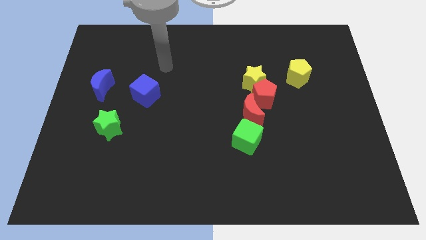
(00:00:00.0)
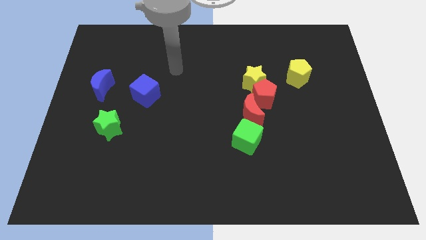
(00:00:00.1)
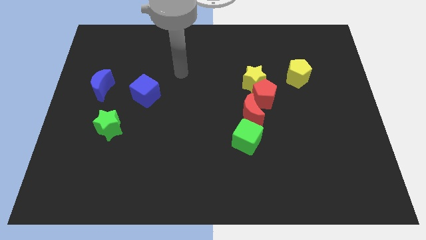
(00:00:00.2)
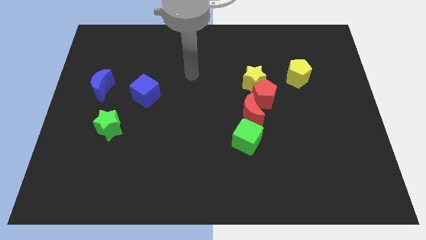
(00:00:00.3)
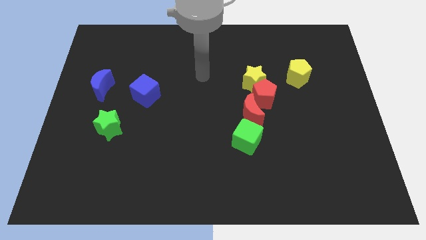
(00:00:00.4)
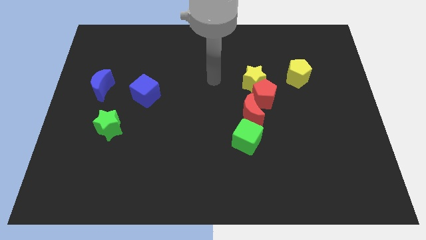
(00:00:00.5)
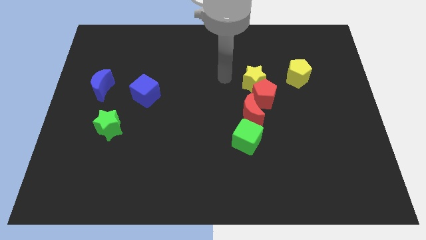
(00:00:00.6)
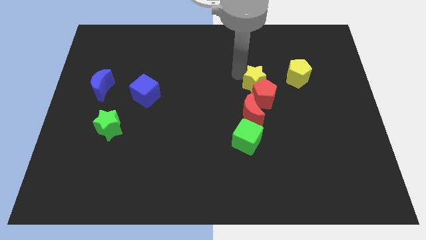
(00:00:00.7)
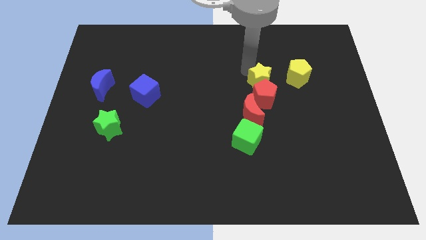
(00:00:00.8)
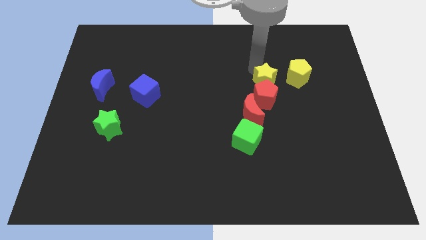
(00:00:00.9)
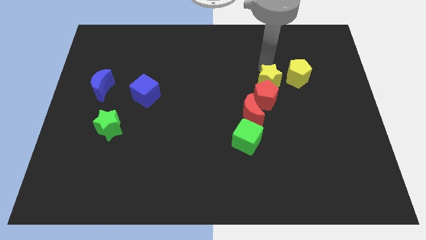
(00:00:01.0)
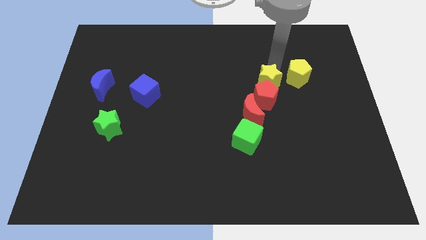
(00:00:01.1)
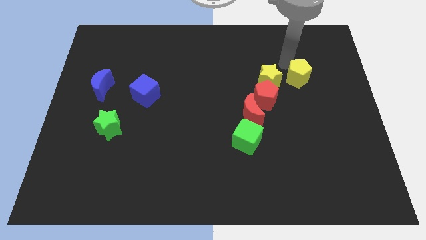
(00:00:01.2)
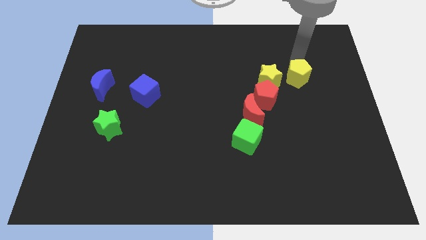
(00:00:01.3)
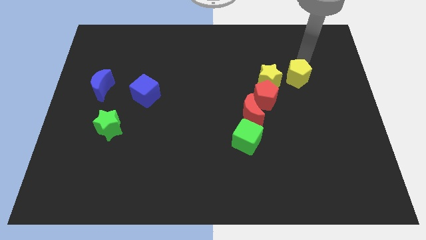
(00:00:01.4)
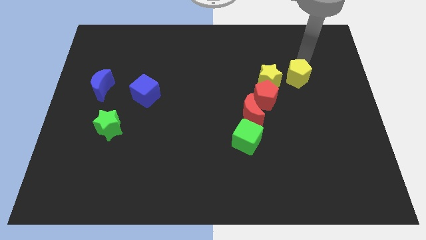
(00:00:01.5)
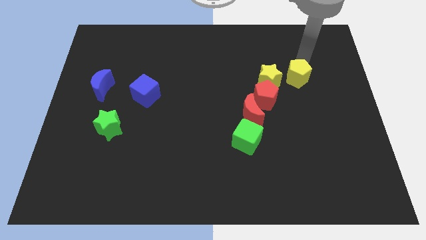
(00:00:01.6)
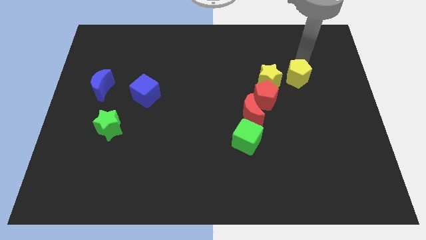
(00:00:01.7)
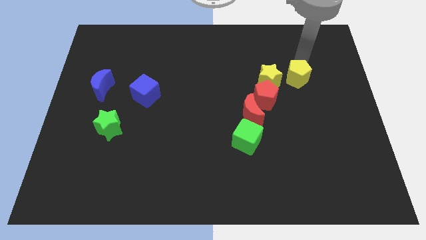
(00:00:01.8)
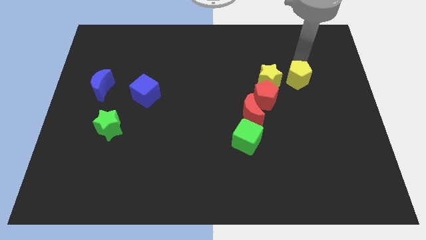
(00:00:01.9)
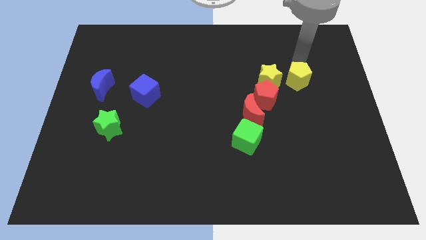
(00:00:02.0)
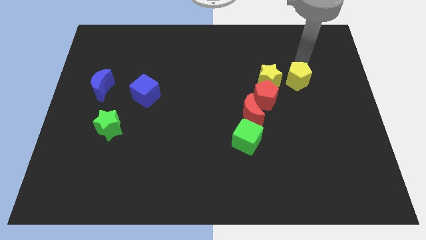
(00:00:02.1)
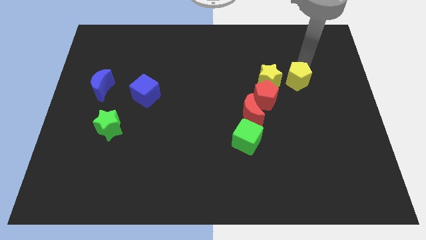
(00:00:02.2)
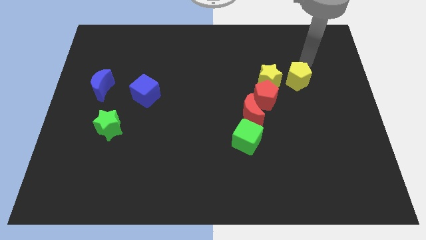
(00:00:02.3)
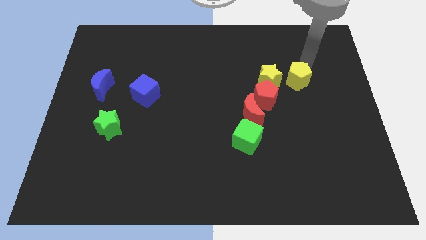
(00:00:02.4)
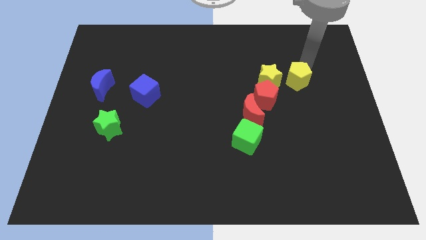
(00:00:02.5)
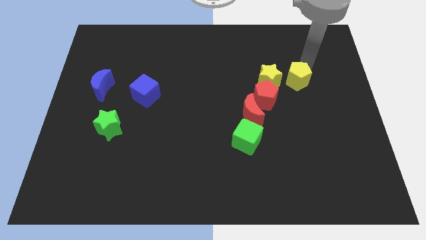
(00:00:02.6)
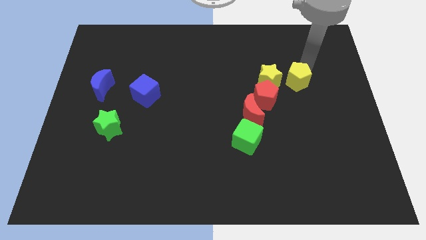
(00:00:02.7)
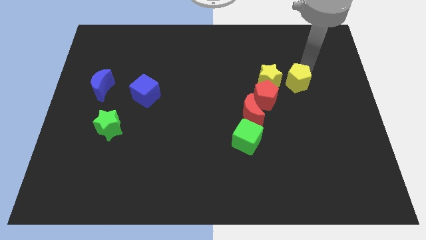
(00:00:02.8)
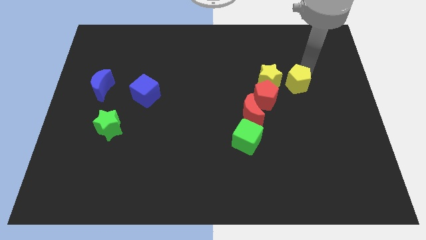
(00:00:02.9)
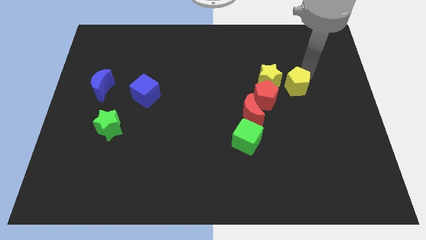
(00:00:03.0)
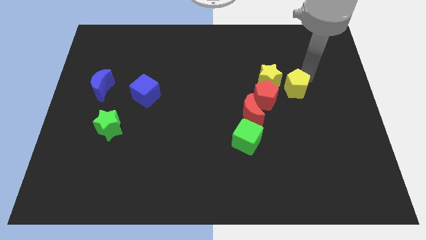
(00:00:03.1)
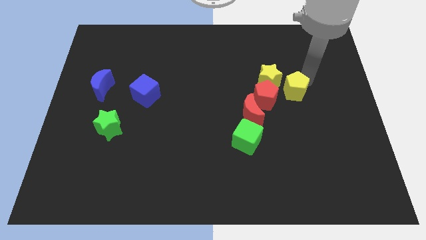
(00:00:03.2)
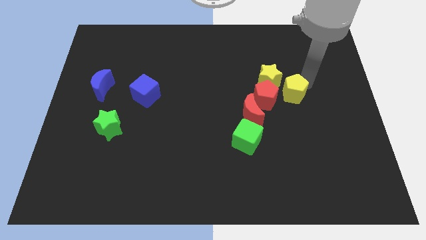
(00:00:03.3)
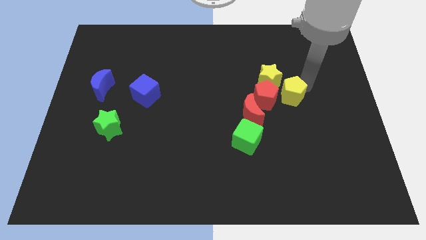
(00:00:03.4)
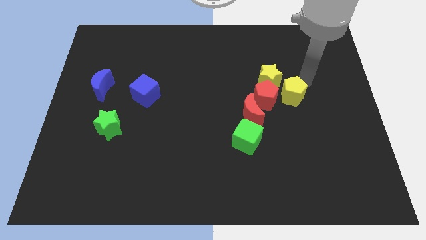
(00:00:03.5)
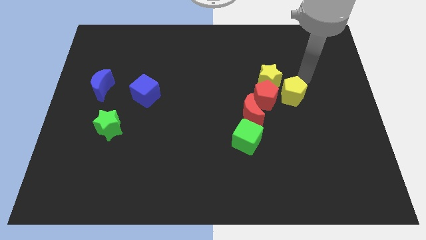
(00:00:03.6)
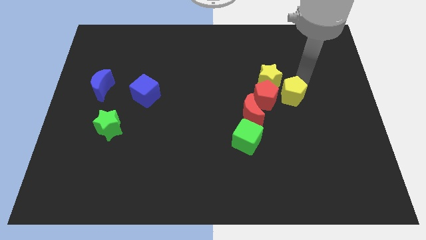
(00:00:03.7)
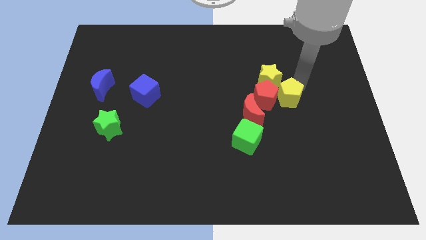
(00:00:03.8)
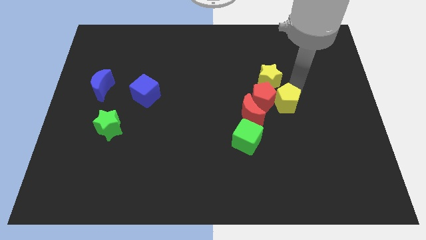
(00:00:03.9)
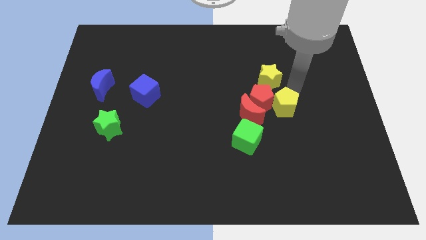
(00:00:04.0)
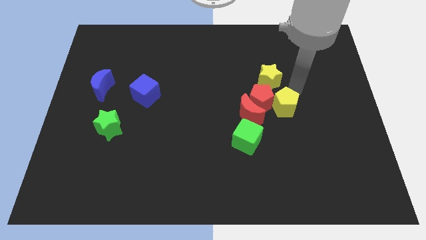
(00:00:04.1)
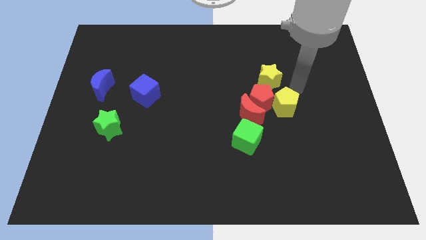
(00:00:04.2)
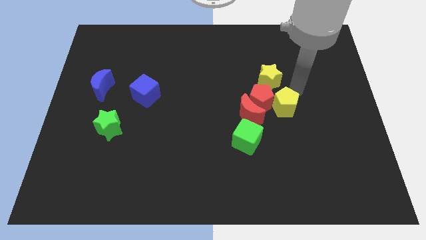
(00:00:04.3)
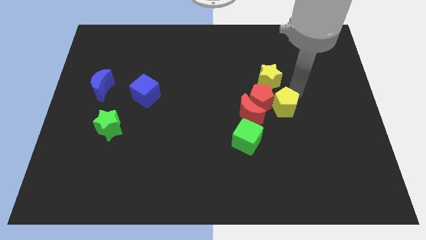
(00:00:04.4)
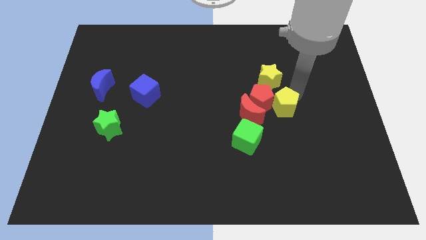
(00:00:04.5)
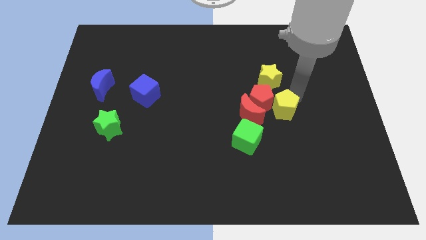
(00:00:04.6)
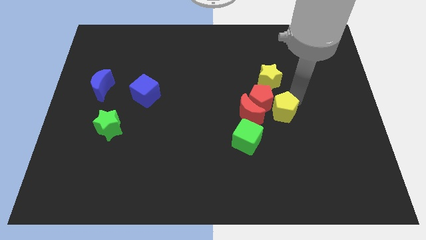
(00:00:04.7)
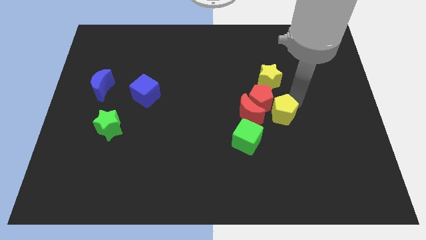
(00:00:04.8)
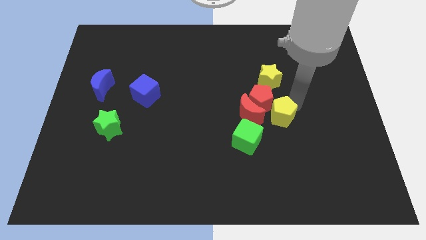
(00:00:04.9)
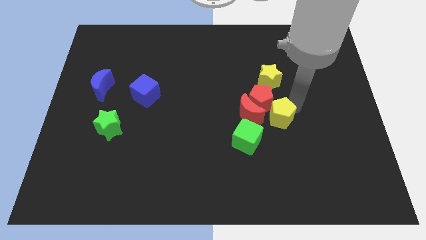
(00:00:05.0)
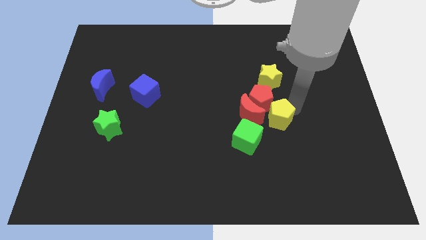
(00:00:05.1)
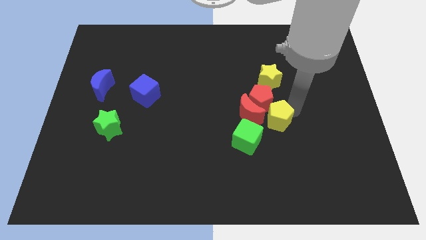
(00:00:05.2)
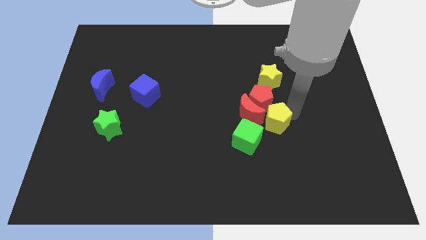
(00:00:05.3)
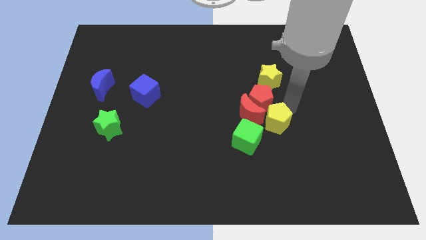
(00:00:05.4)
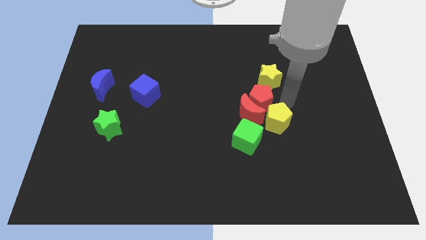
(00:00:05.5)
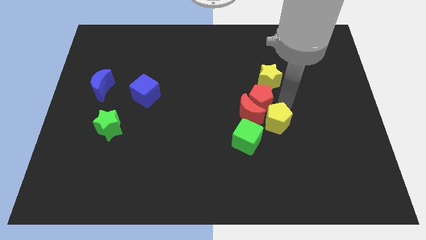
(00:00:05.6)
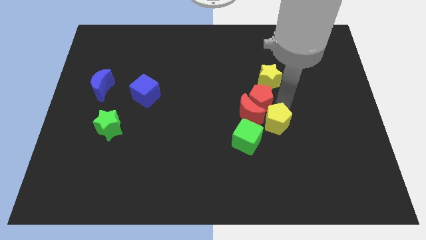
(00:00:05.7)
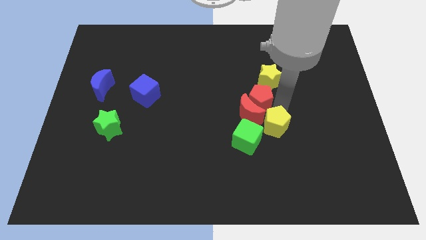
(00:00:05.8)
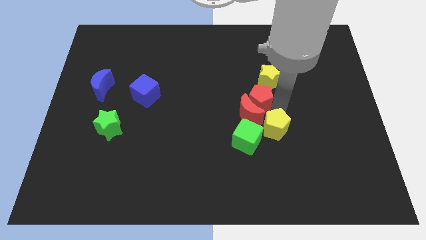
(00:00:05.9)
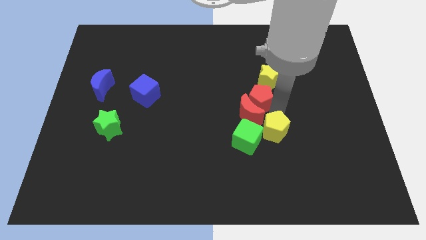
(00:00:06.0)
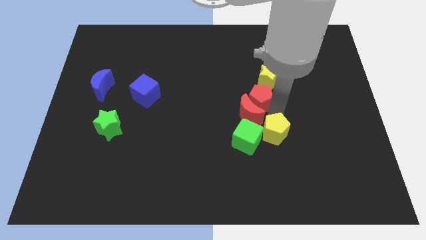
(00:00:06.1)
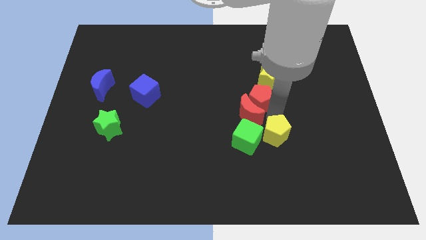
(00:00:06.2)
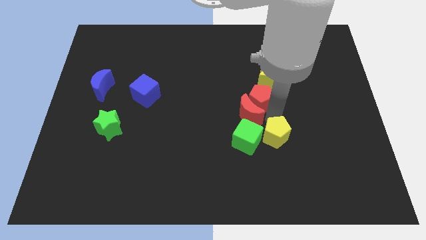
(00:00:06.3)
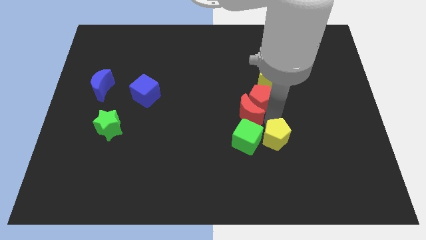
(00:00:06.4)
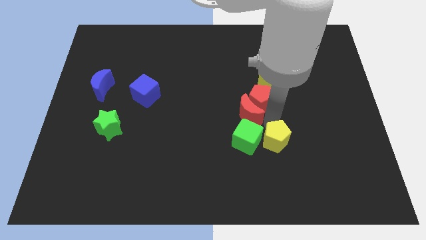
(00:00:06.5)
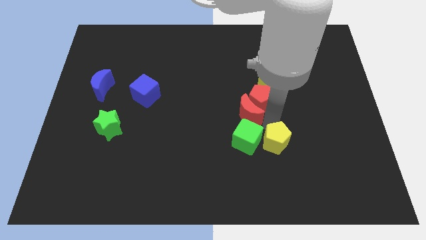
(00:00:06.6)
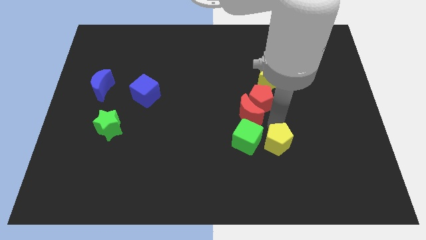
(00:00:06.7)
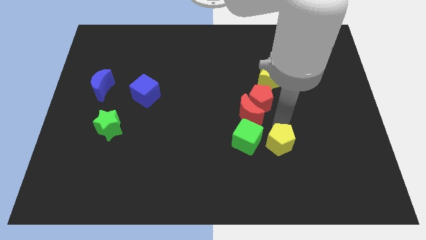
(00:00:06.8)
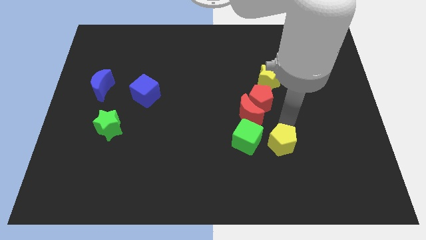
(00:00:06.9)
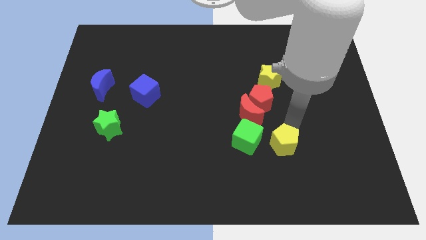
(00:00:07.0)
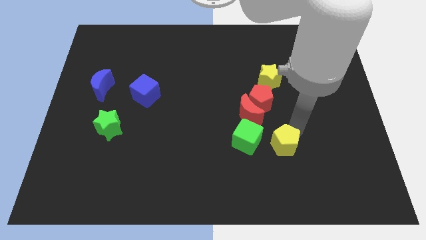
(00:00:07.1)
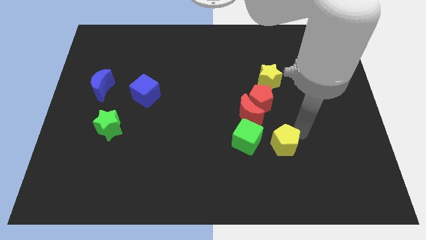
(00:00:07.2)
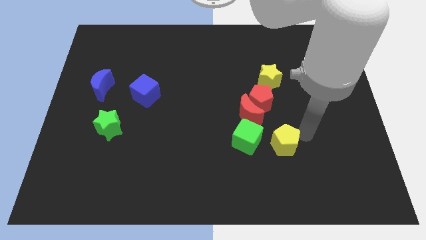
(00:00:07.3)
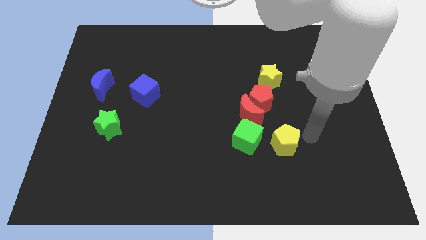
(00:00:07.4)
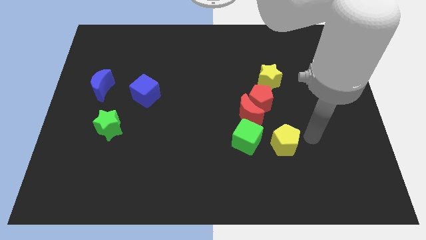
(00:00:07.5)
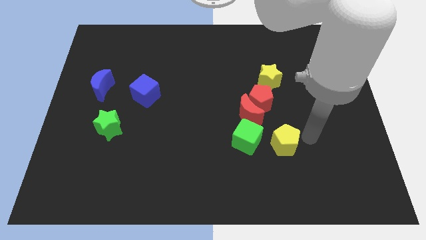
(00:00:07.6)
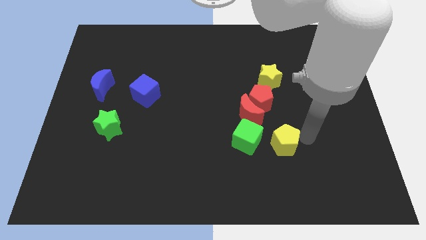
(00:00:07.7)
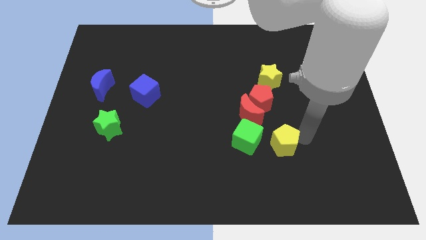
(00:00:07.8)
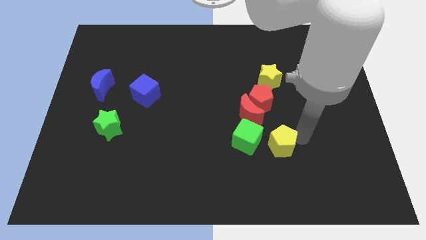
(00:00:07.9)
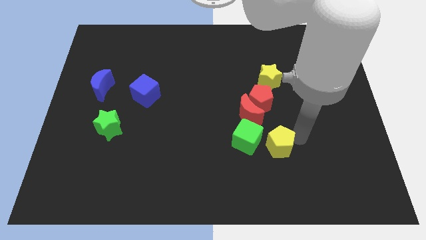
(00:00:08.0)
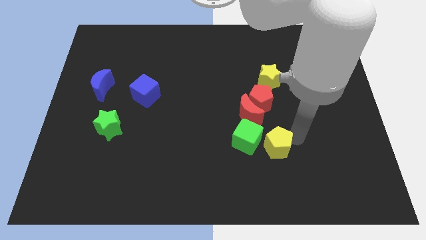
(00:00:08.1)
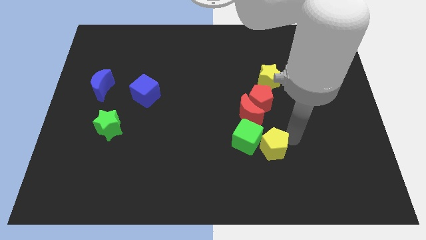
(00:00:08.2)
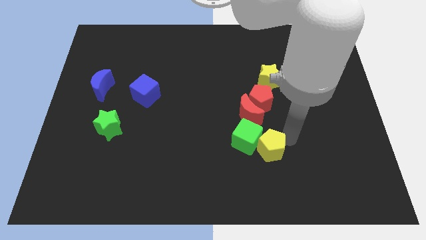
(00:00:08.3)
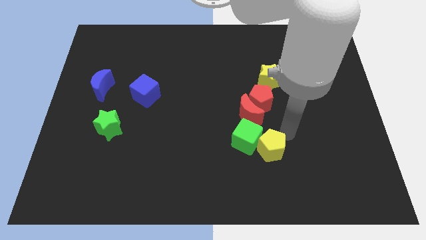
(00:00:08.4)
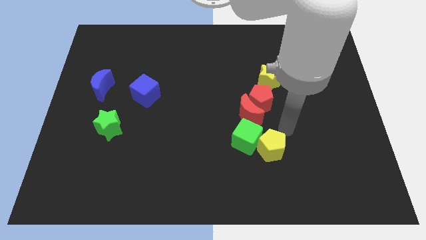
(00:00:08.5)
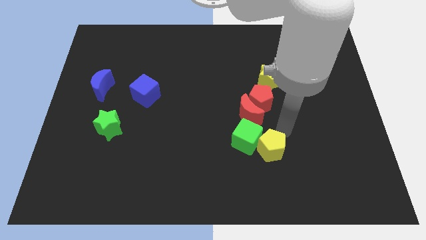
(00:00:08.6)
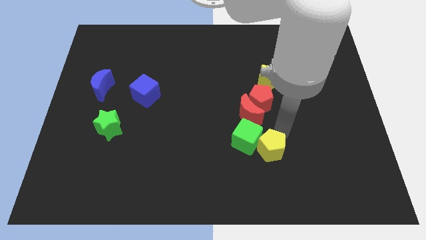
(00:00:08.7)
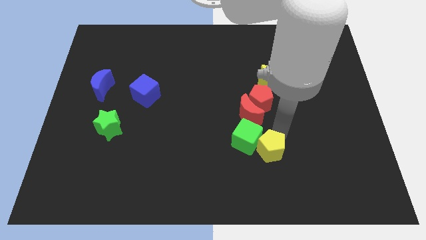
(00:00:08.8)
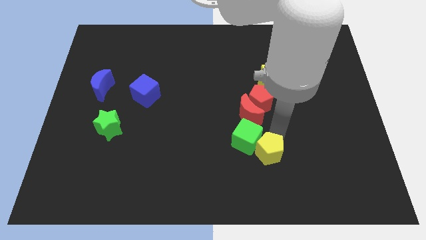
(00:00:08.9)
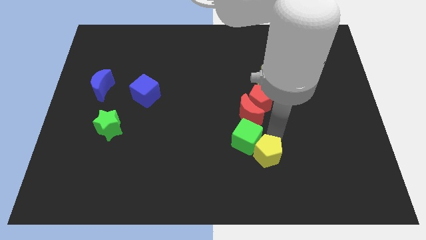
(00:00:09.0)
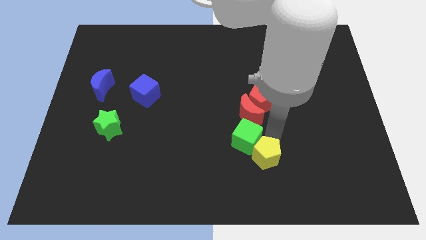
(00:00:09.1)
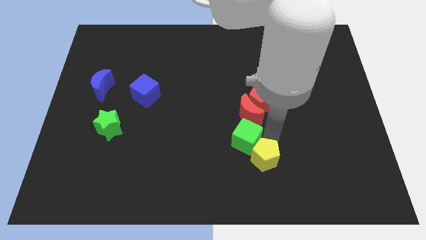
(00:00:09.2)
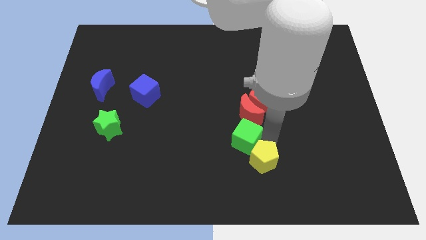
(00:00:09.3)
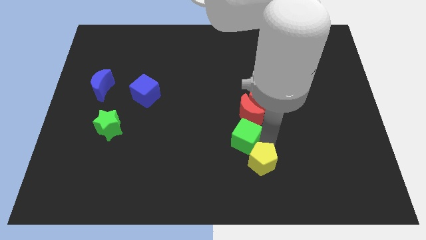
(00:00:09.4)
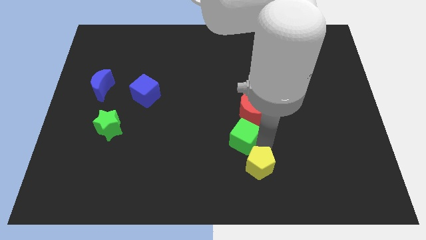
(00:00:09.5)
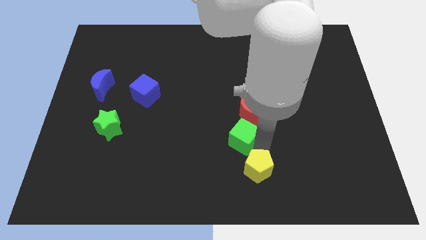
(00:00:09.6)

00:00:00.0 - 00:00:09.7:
move the yellow pentagon to the bottom
